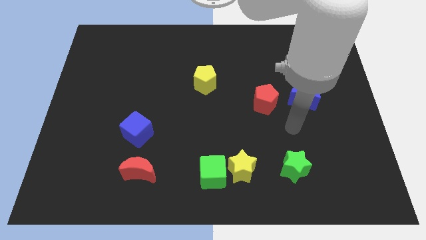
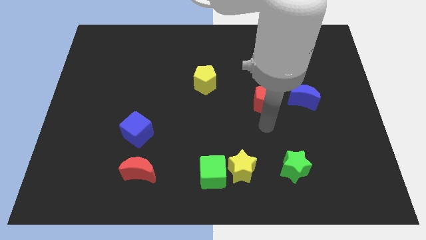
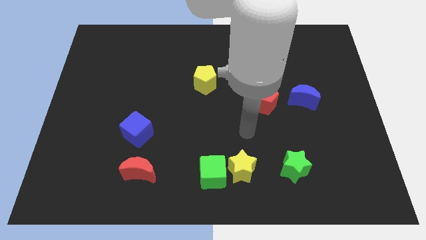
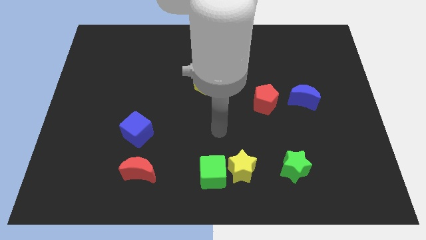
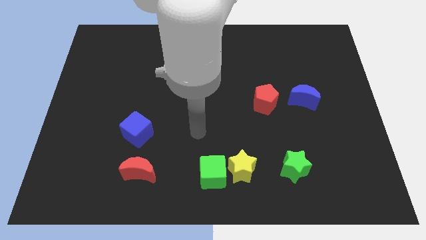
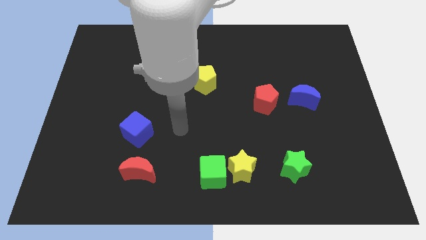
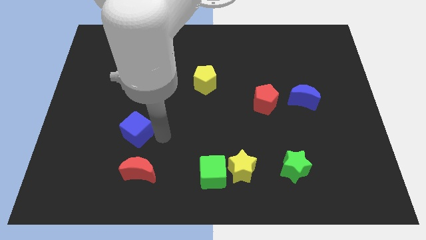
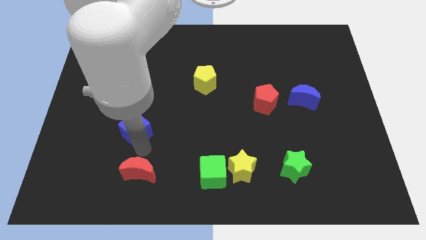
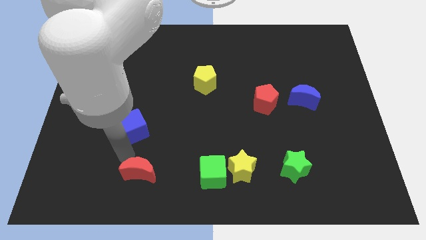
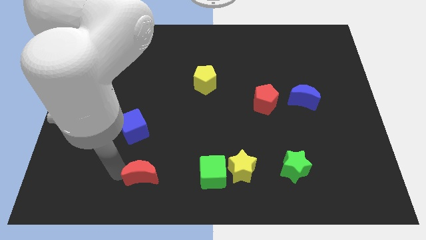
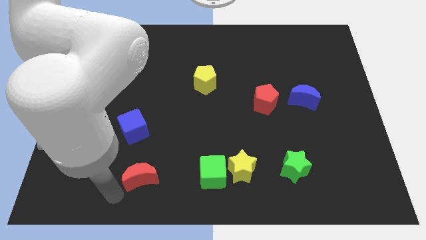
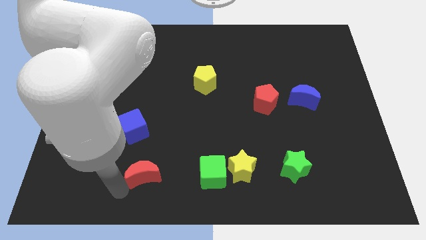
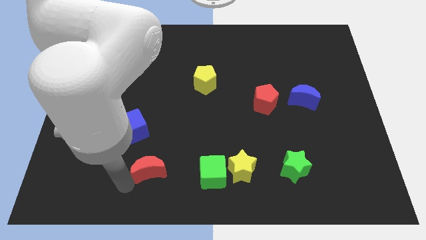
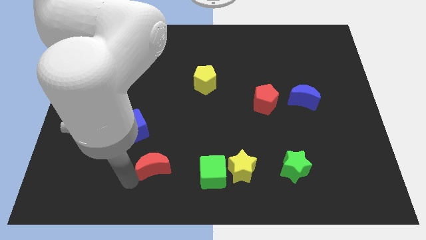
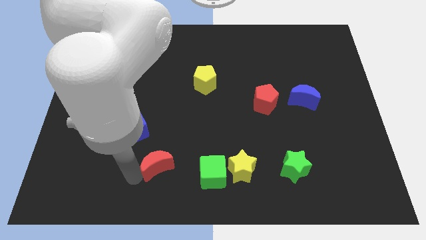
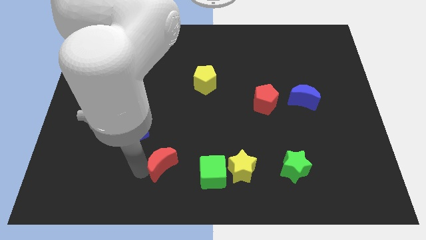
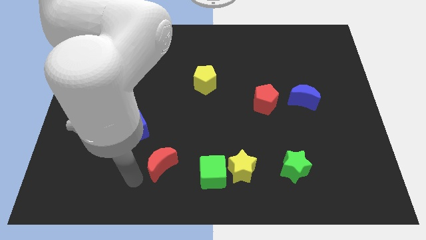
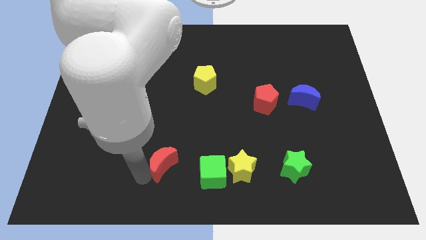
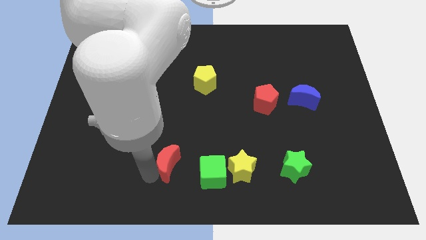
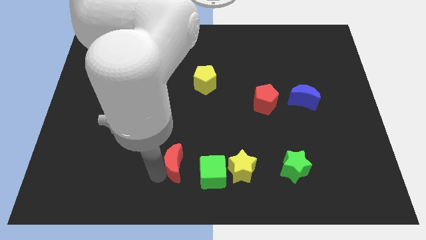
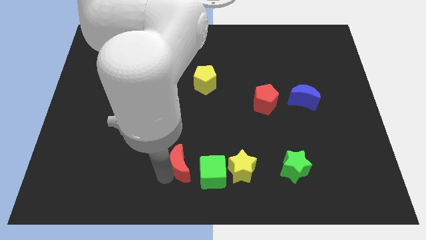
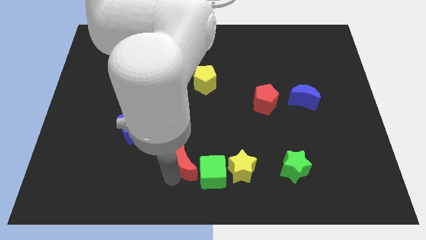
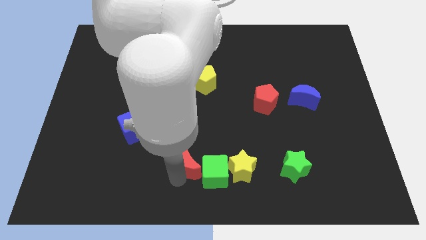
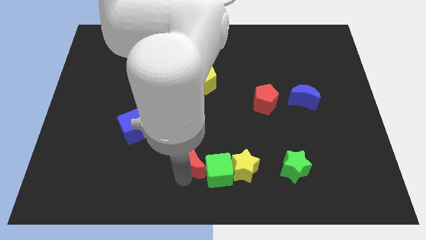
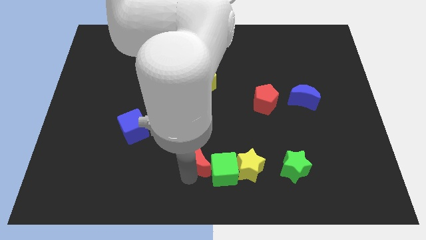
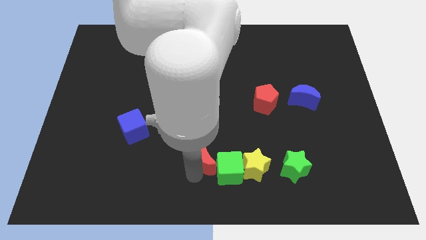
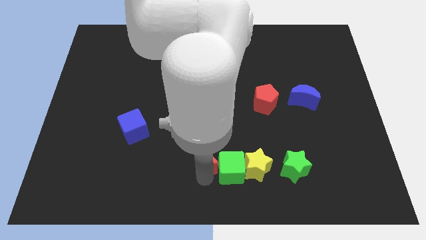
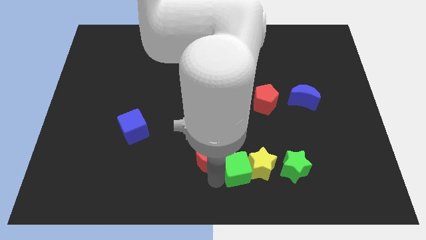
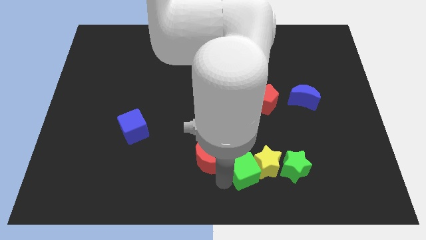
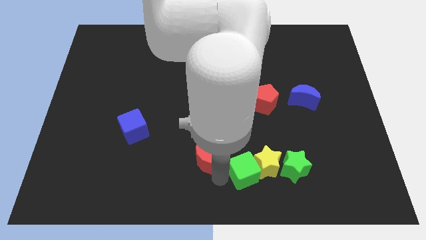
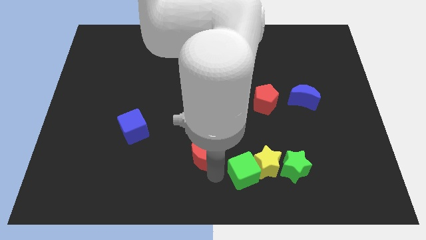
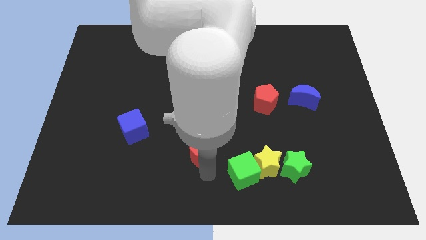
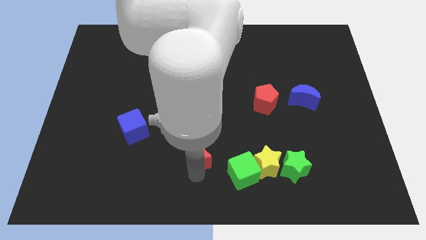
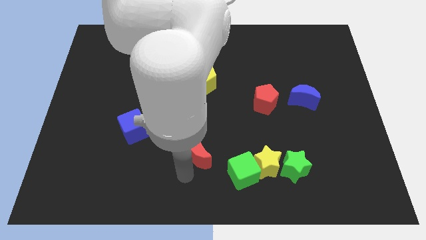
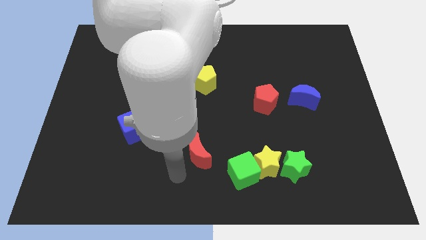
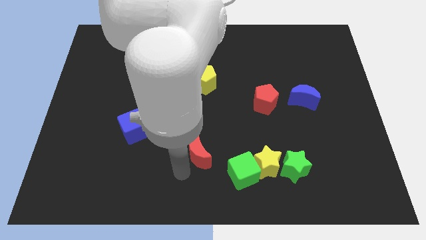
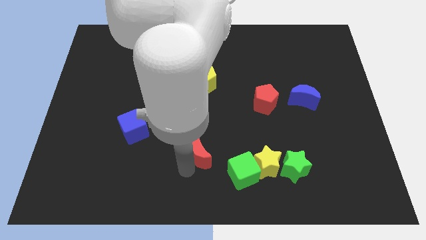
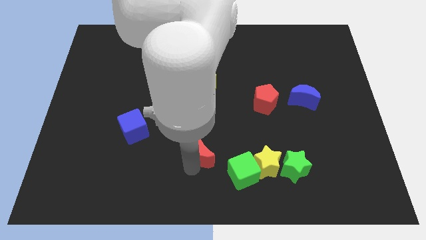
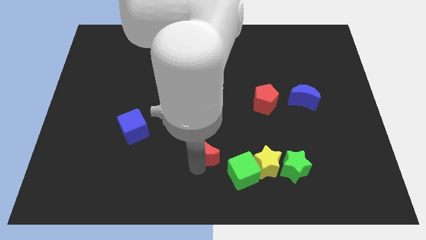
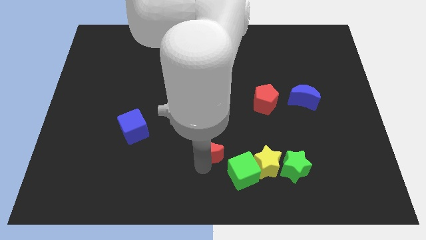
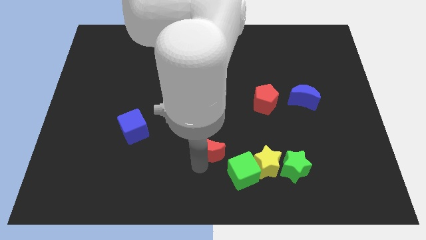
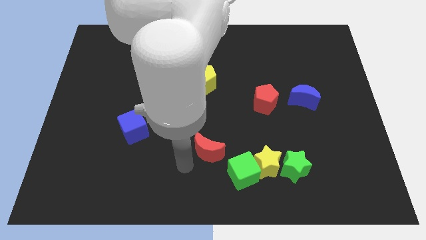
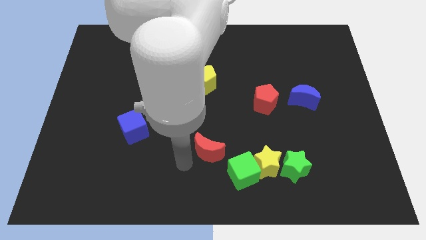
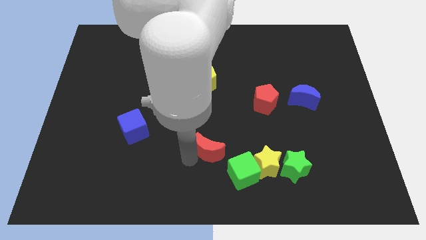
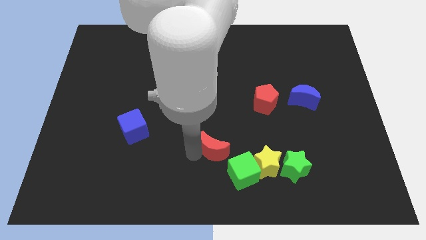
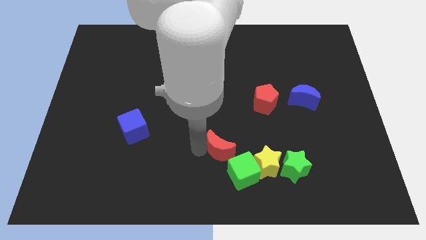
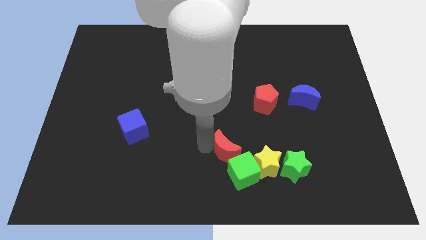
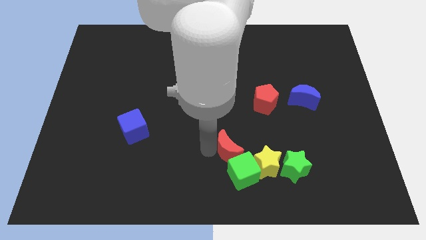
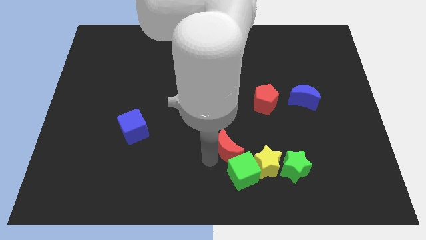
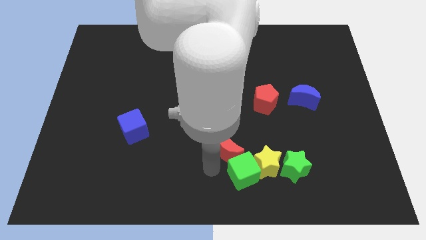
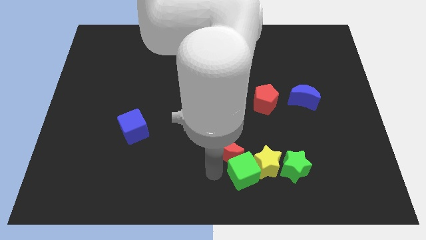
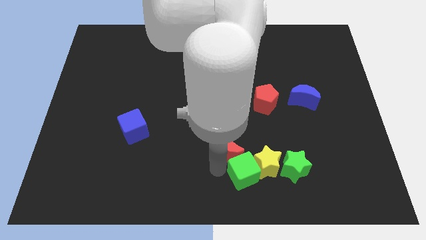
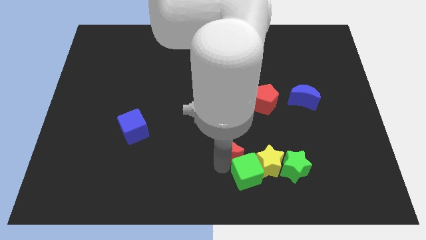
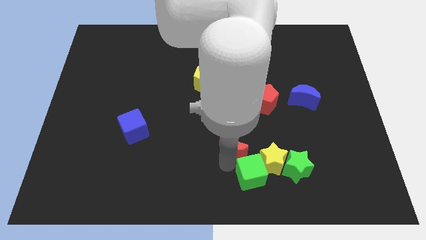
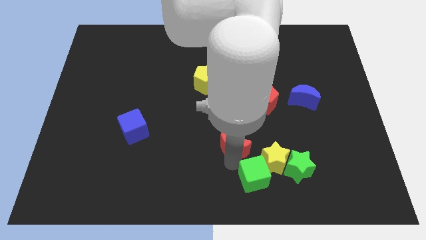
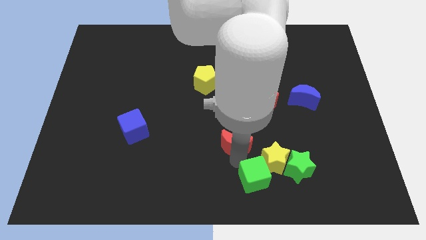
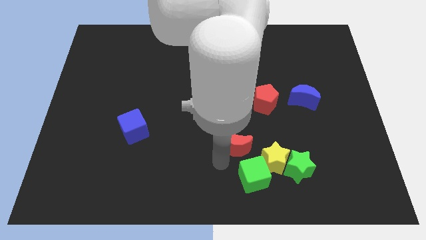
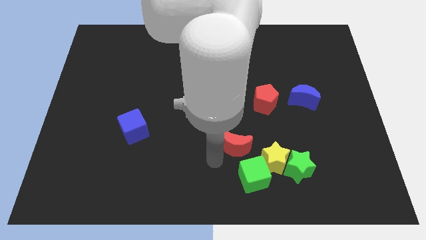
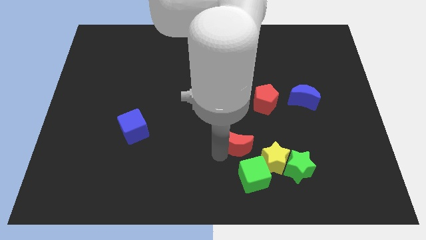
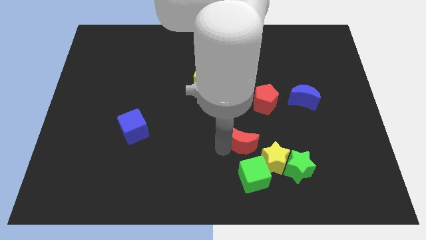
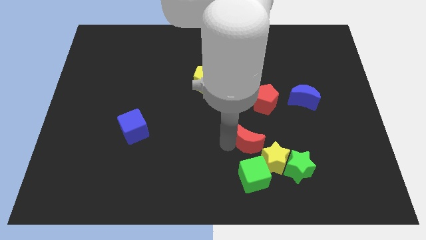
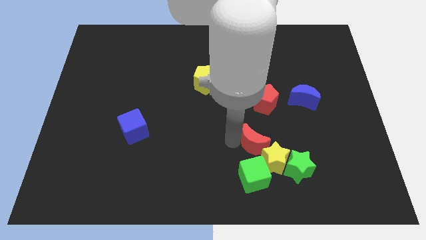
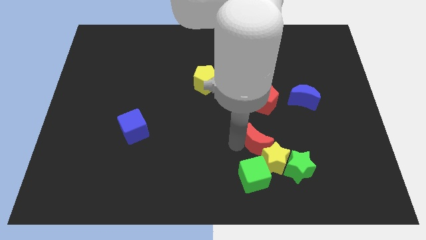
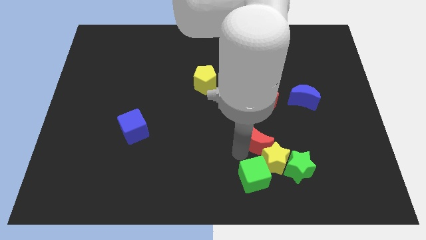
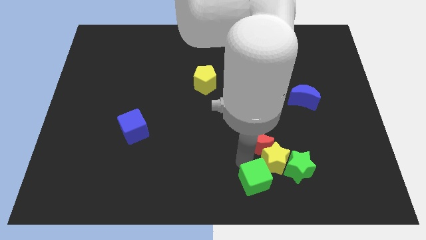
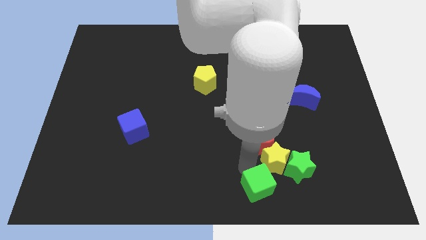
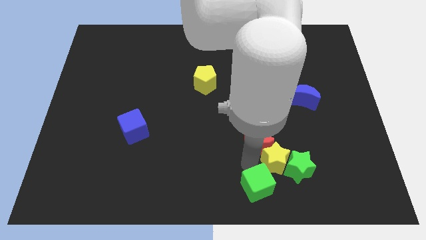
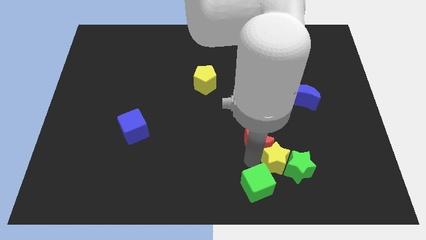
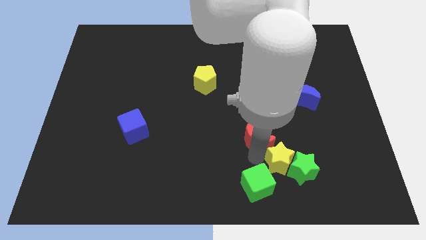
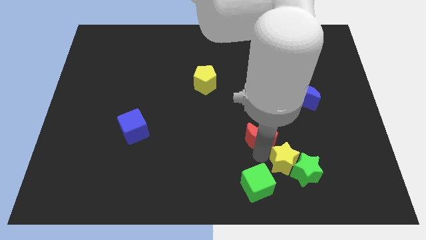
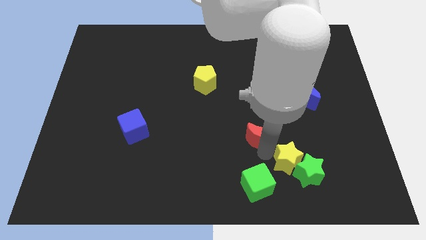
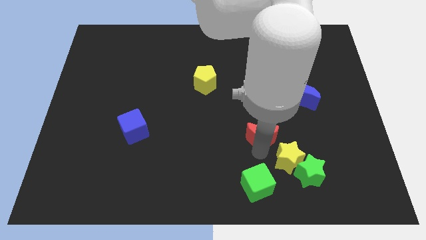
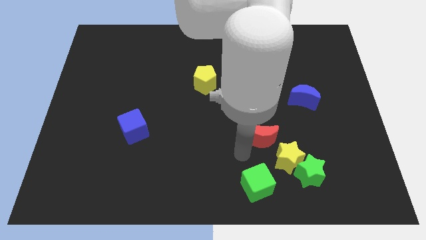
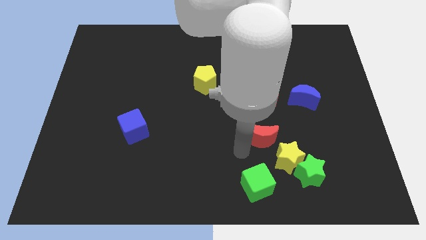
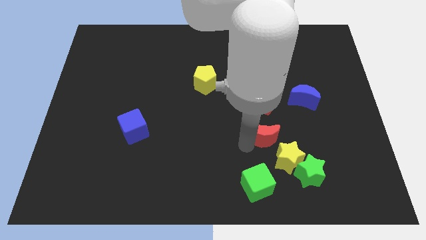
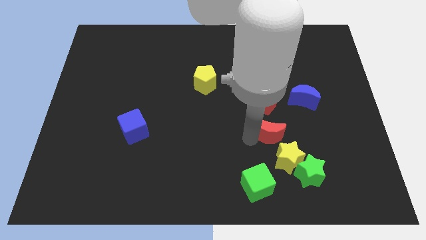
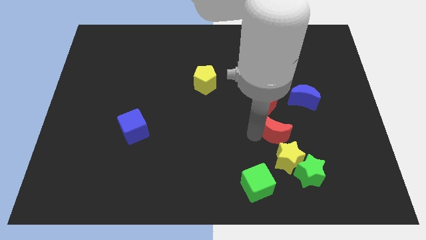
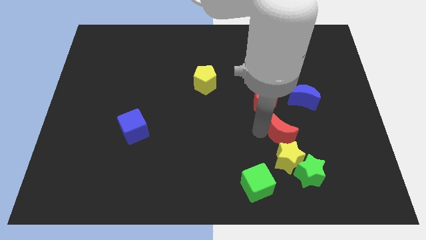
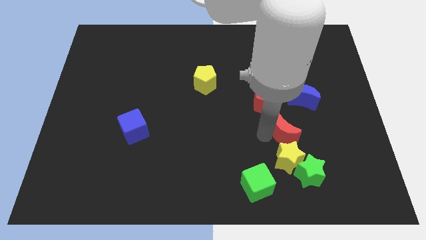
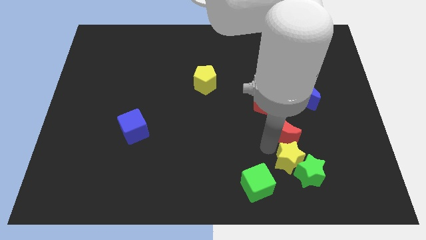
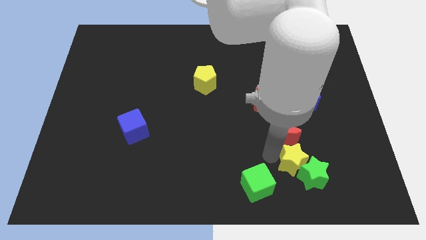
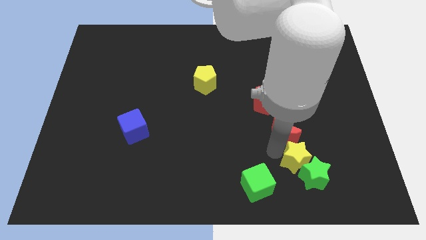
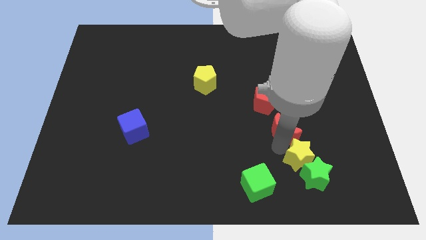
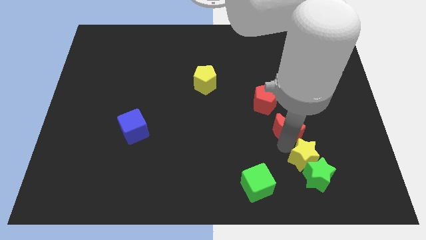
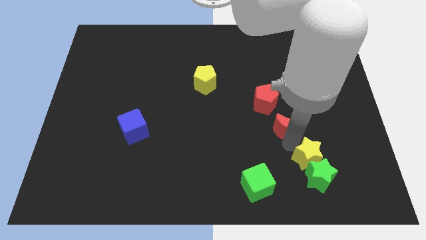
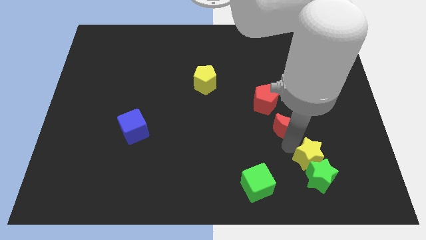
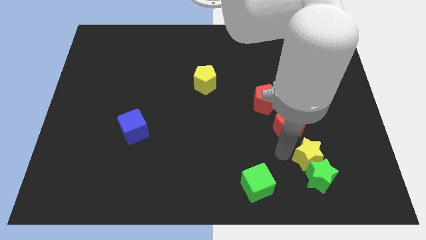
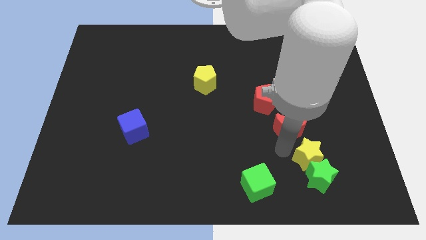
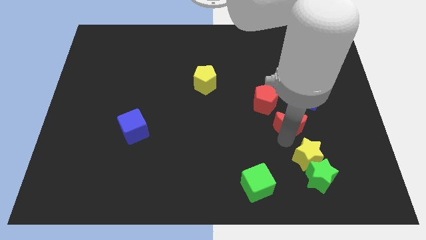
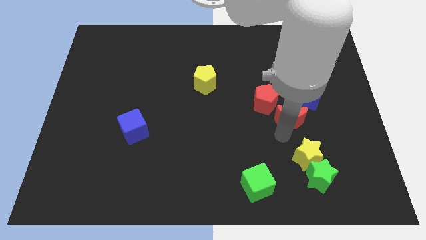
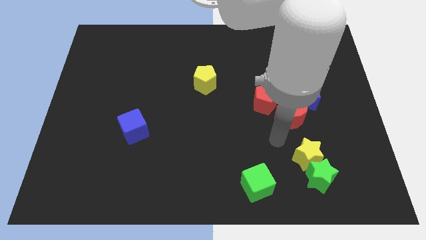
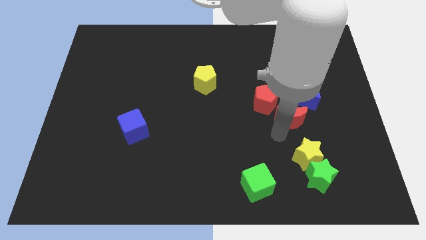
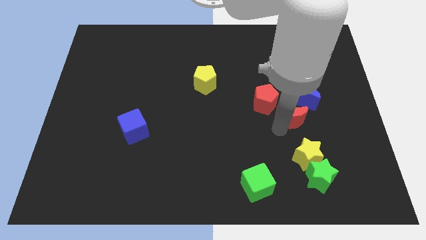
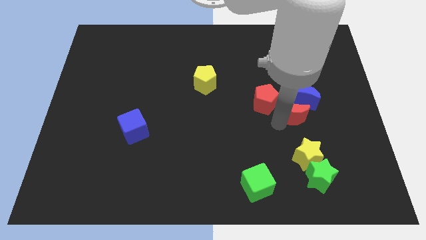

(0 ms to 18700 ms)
move the red moon towards the blue moon
